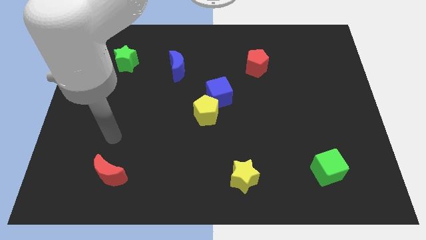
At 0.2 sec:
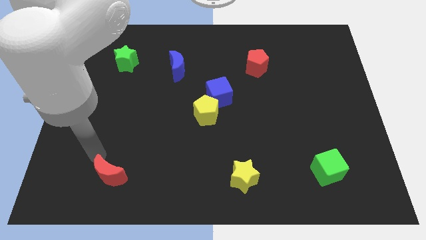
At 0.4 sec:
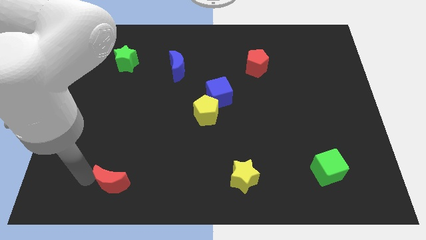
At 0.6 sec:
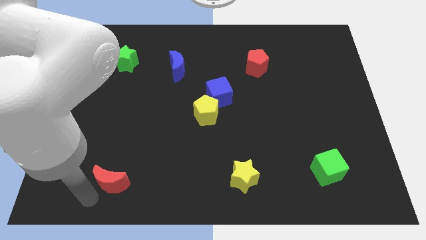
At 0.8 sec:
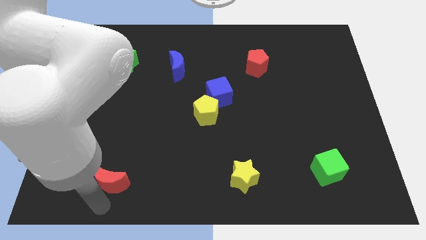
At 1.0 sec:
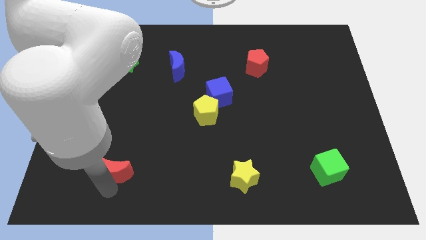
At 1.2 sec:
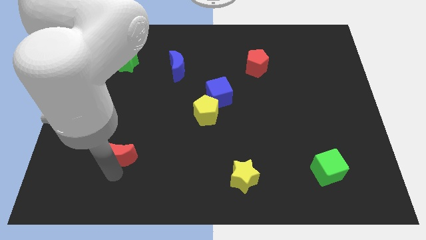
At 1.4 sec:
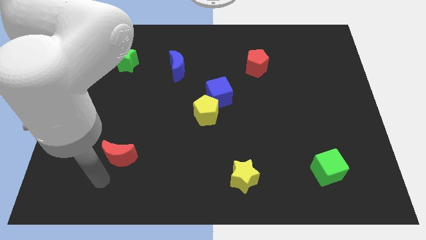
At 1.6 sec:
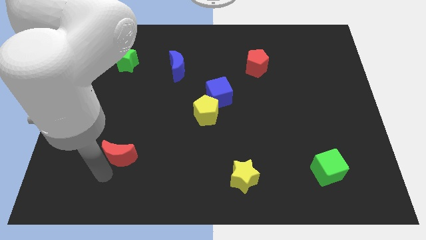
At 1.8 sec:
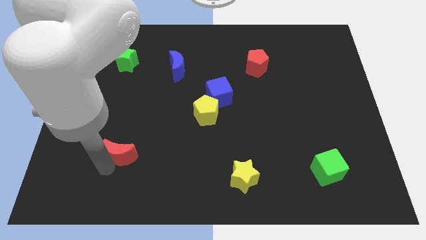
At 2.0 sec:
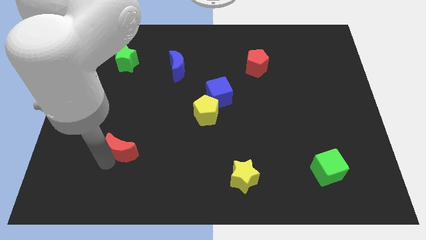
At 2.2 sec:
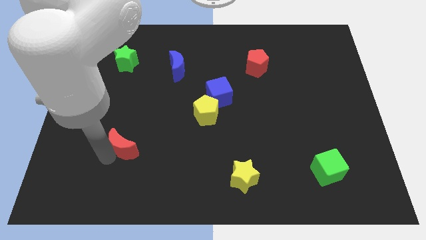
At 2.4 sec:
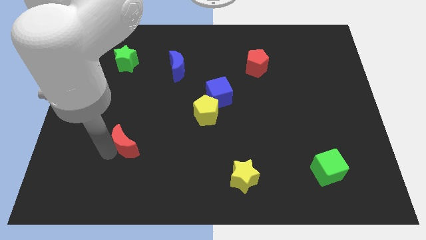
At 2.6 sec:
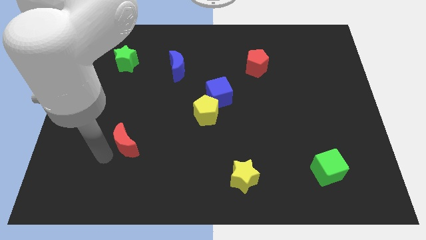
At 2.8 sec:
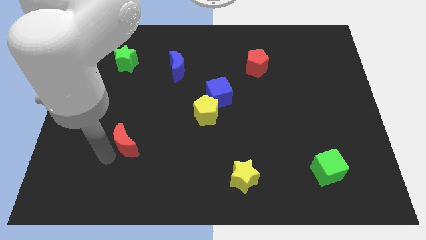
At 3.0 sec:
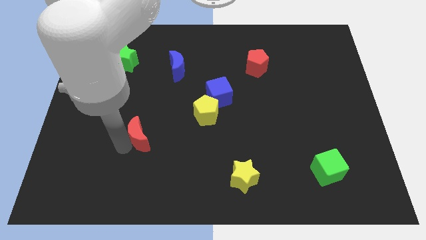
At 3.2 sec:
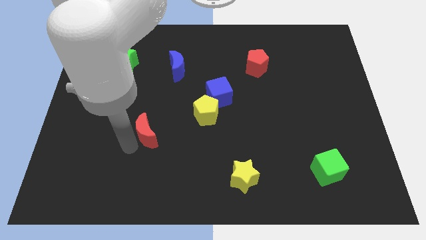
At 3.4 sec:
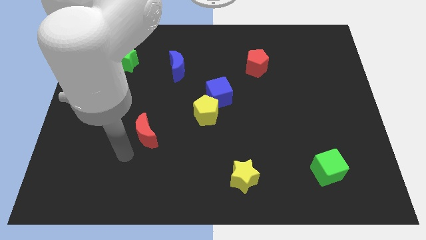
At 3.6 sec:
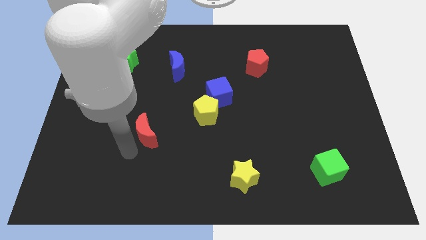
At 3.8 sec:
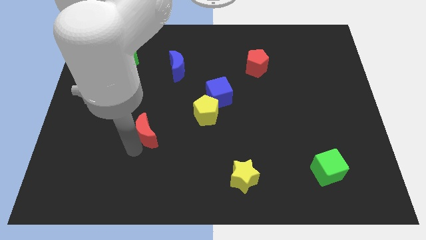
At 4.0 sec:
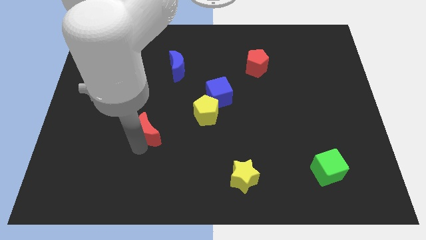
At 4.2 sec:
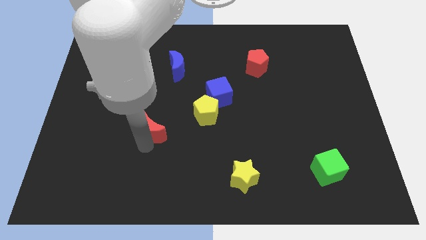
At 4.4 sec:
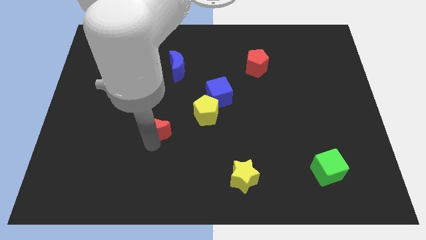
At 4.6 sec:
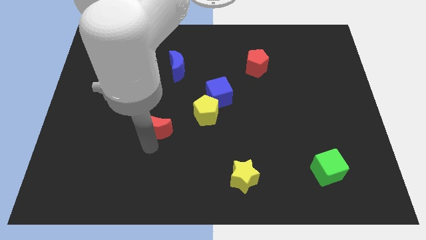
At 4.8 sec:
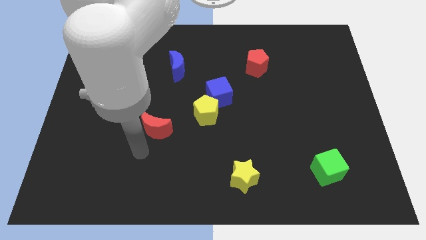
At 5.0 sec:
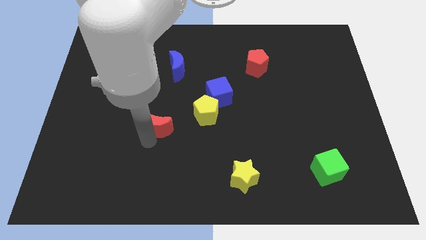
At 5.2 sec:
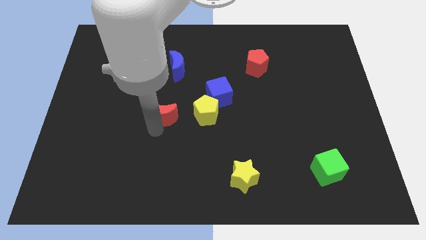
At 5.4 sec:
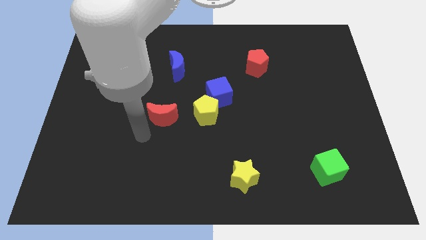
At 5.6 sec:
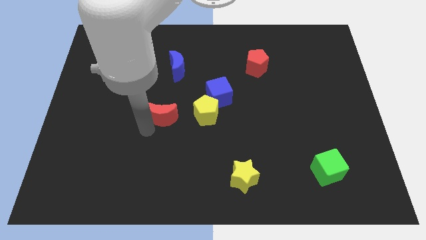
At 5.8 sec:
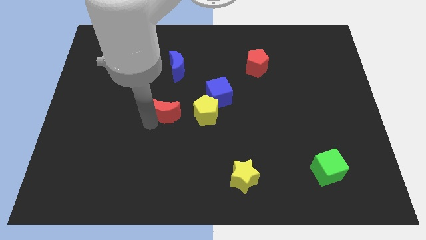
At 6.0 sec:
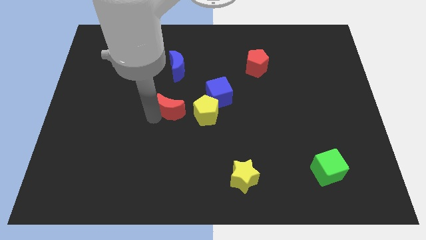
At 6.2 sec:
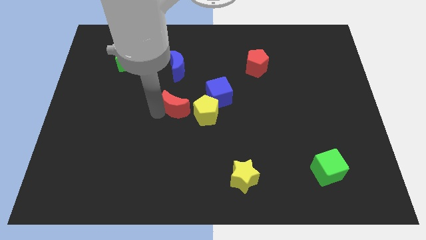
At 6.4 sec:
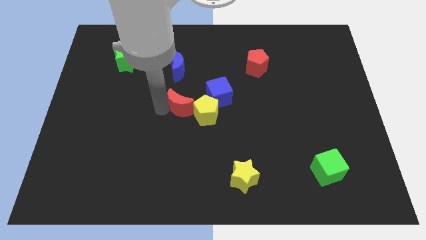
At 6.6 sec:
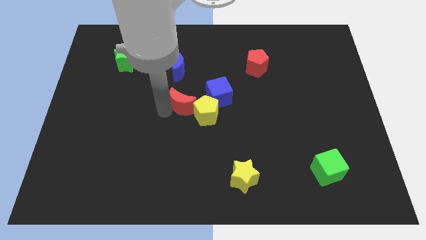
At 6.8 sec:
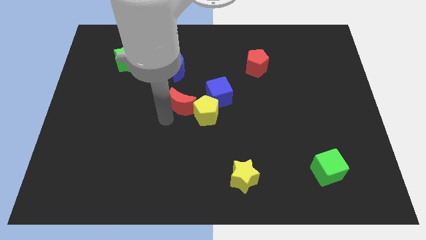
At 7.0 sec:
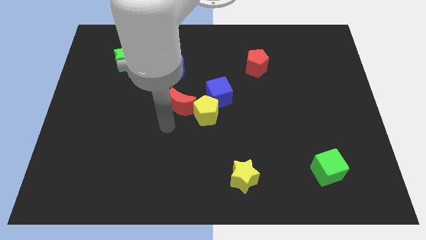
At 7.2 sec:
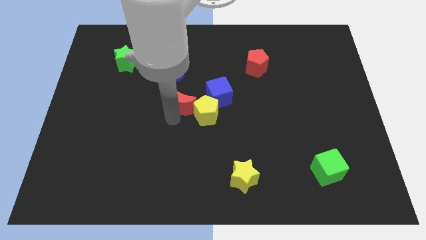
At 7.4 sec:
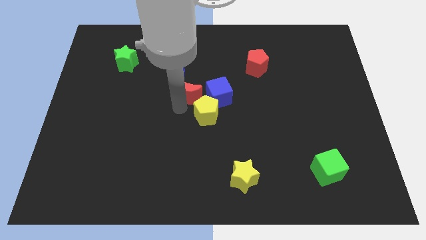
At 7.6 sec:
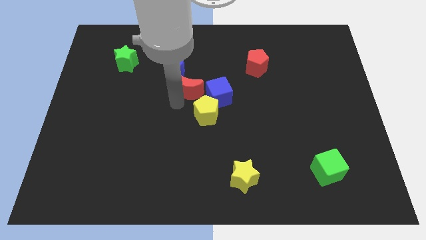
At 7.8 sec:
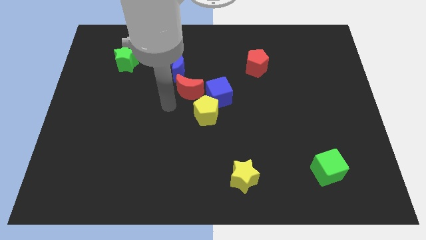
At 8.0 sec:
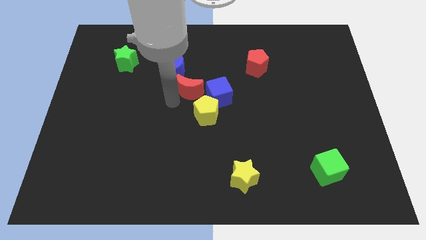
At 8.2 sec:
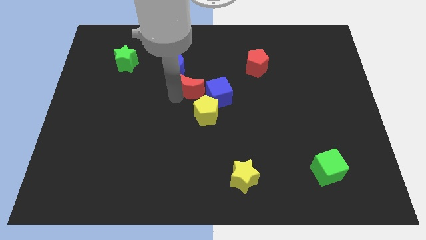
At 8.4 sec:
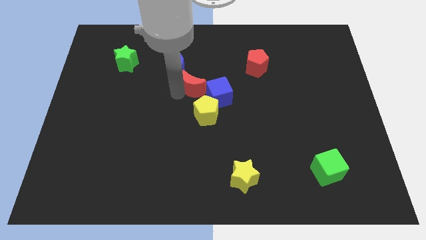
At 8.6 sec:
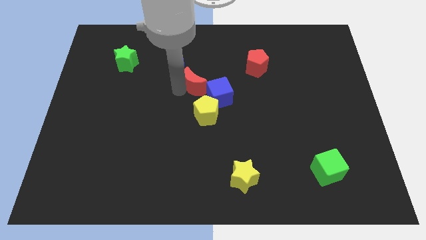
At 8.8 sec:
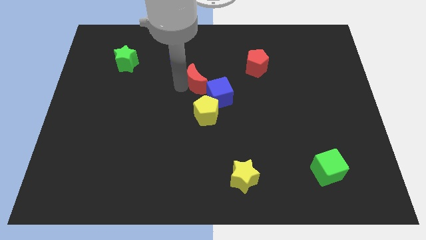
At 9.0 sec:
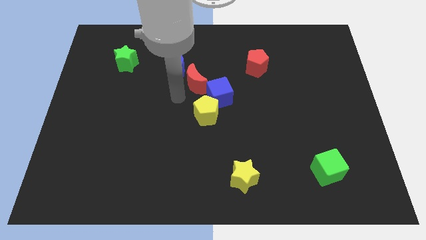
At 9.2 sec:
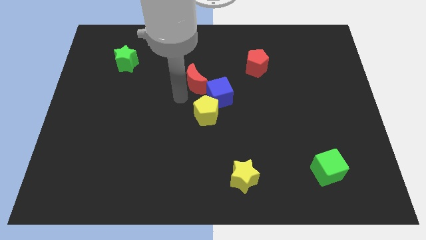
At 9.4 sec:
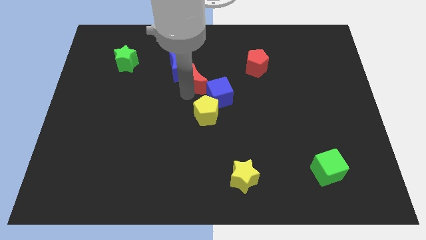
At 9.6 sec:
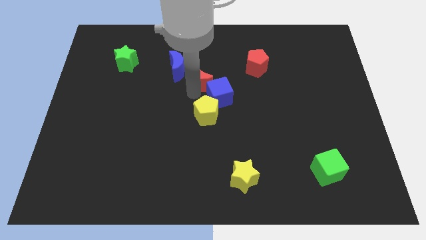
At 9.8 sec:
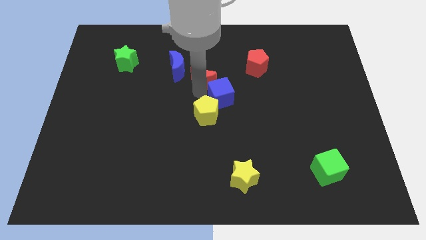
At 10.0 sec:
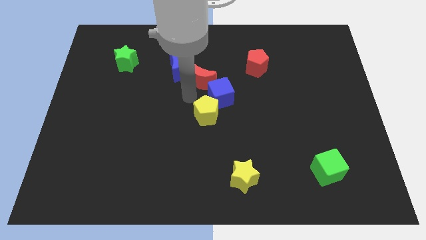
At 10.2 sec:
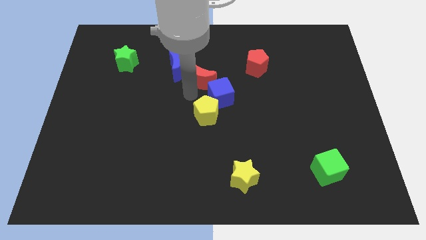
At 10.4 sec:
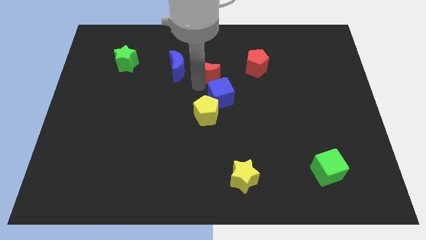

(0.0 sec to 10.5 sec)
push the red moon to the left of the red pentagon
